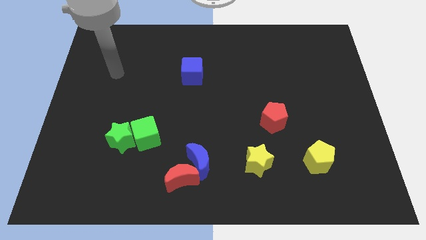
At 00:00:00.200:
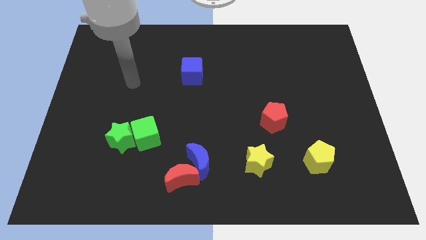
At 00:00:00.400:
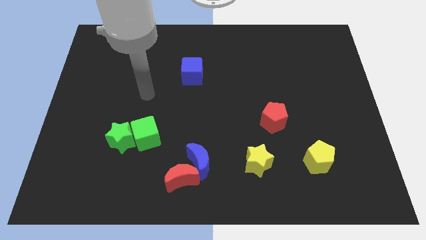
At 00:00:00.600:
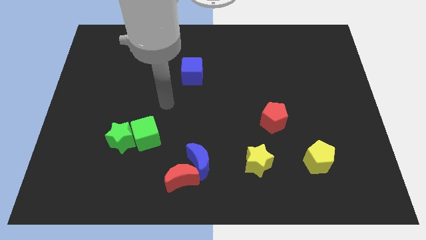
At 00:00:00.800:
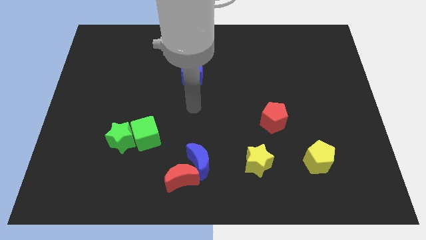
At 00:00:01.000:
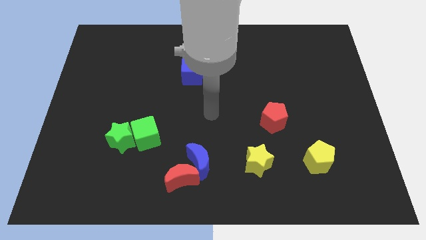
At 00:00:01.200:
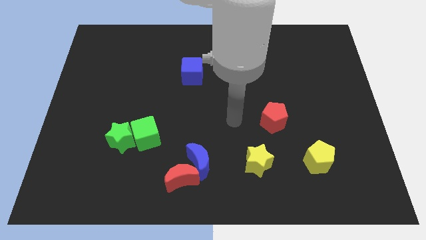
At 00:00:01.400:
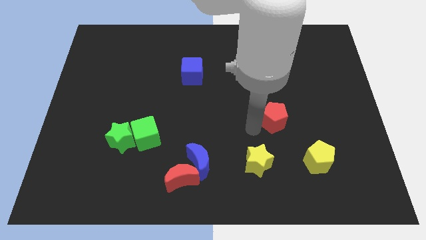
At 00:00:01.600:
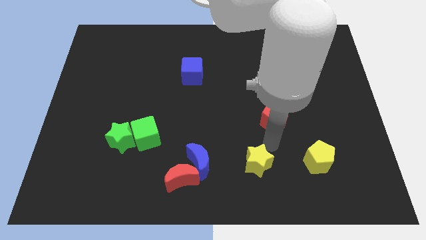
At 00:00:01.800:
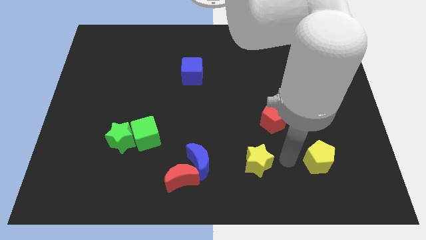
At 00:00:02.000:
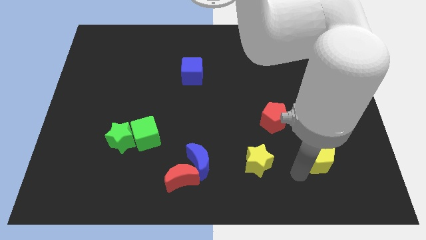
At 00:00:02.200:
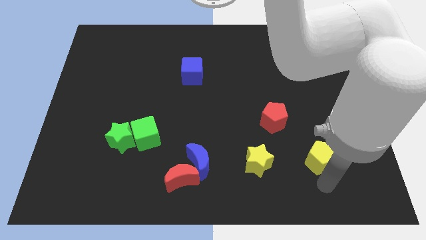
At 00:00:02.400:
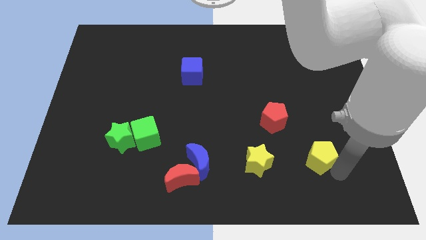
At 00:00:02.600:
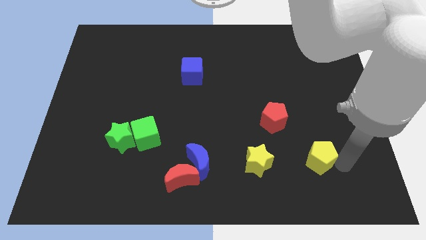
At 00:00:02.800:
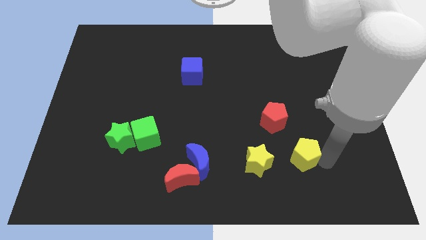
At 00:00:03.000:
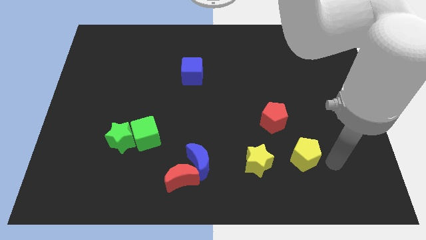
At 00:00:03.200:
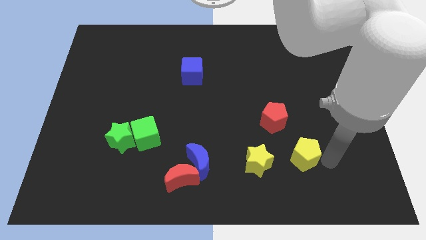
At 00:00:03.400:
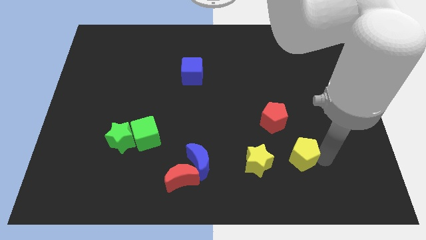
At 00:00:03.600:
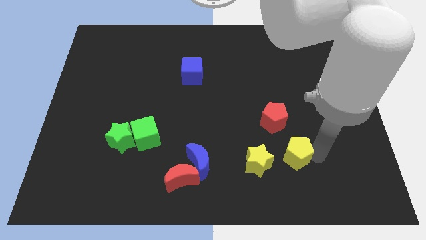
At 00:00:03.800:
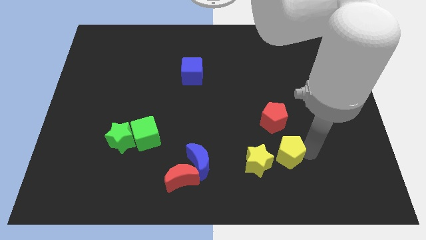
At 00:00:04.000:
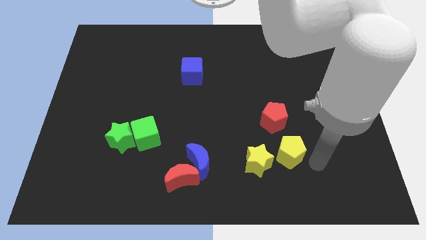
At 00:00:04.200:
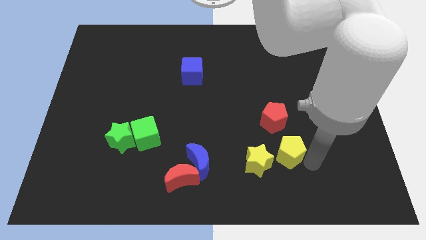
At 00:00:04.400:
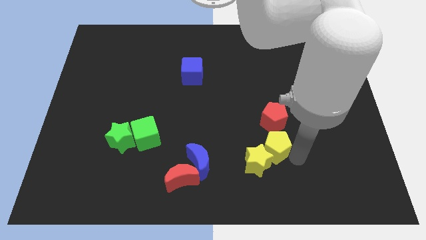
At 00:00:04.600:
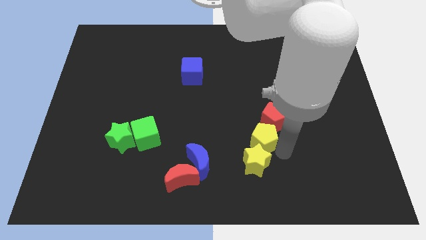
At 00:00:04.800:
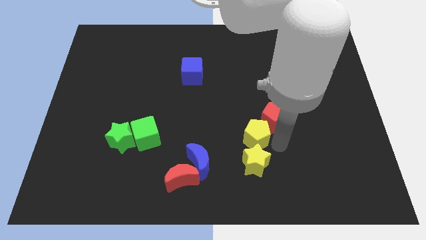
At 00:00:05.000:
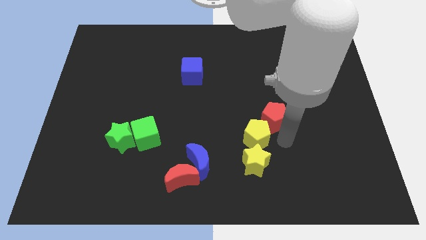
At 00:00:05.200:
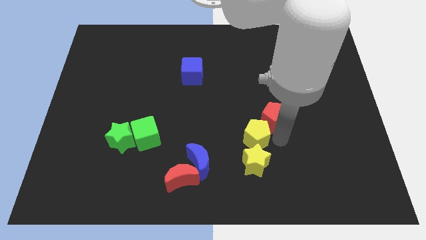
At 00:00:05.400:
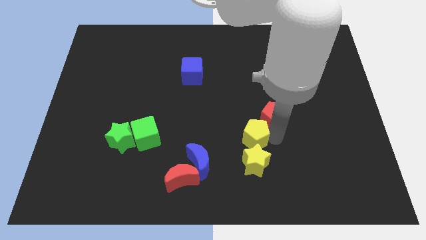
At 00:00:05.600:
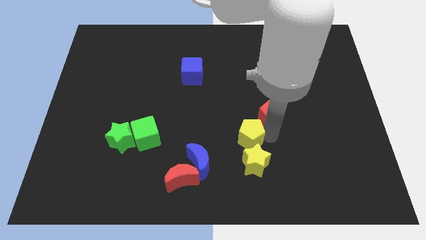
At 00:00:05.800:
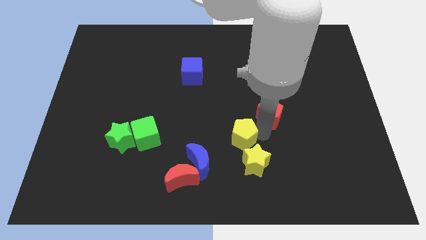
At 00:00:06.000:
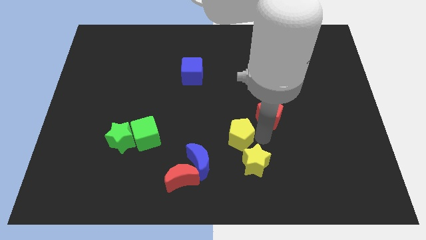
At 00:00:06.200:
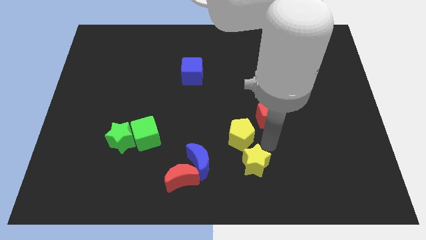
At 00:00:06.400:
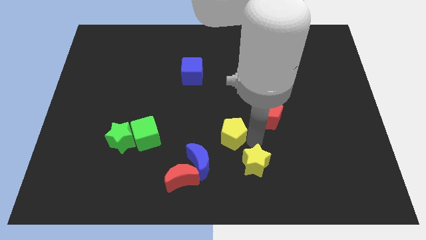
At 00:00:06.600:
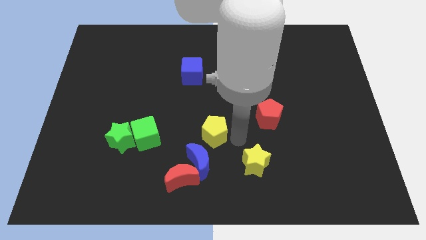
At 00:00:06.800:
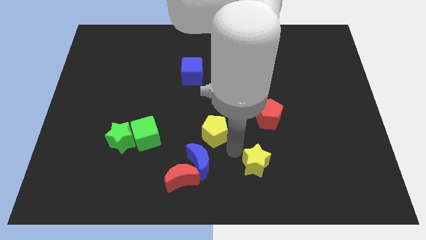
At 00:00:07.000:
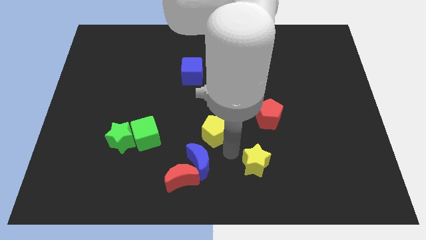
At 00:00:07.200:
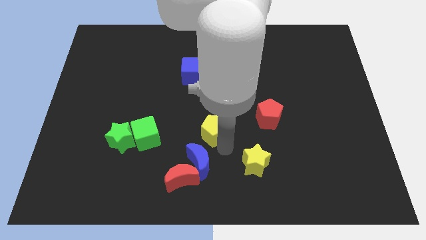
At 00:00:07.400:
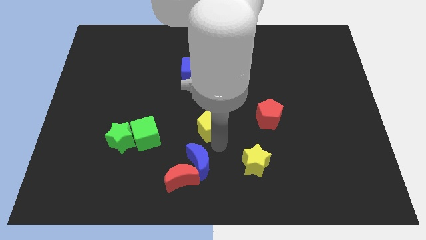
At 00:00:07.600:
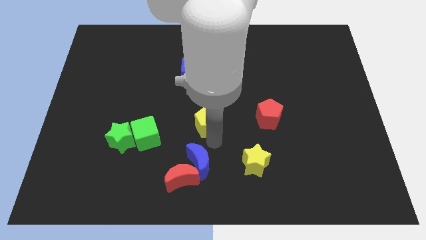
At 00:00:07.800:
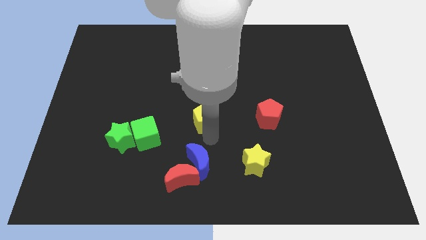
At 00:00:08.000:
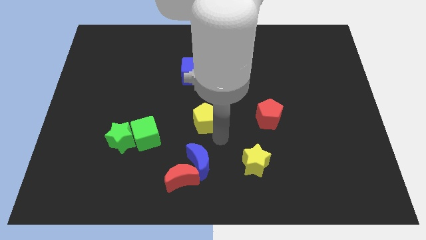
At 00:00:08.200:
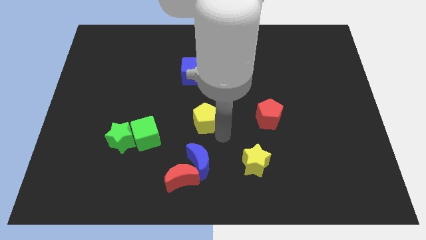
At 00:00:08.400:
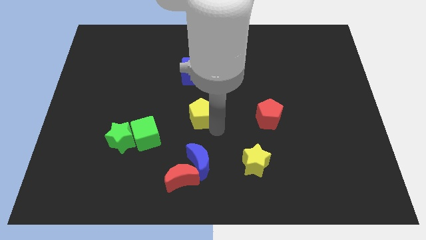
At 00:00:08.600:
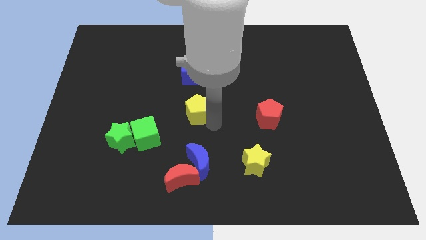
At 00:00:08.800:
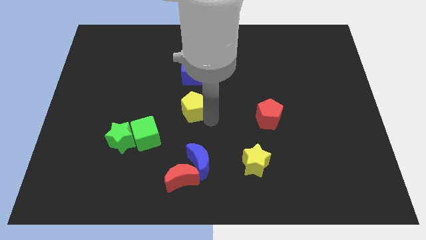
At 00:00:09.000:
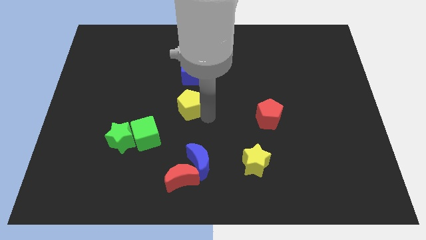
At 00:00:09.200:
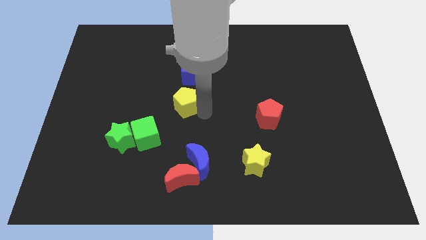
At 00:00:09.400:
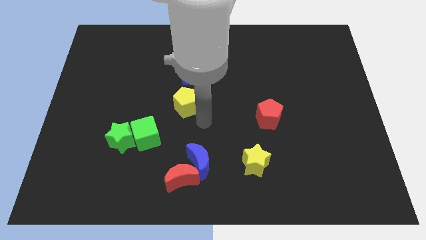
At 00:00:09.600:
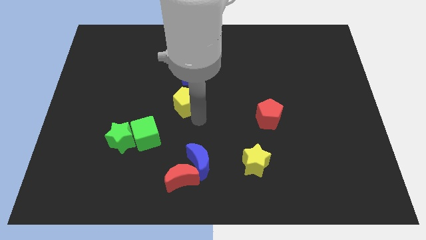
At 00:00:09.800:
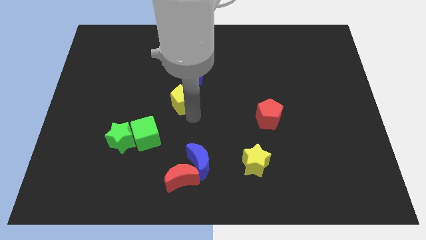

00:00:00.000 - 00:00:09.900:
move the yellow pentagon diagonally down and to the left of the blue cube

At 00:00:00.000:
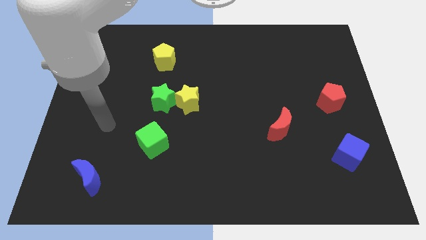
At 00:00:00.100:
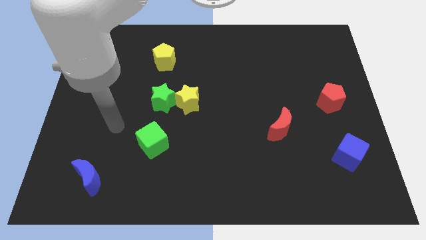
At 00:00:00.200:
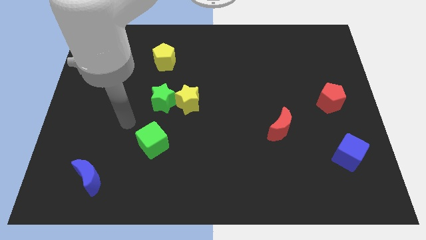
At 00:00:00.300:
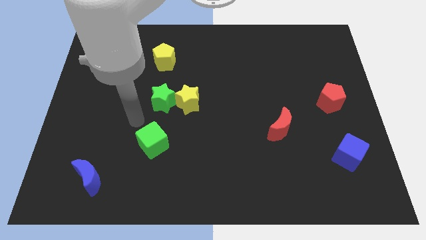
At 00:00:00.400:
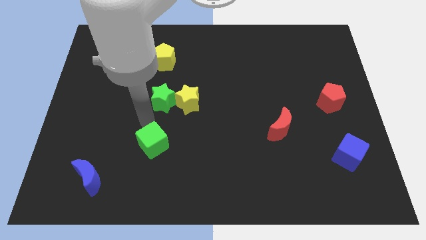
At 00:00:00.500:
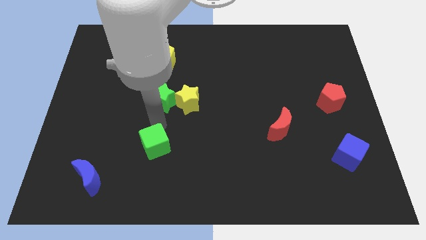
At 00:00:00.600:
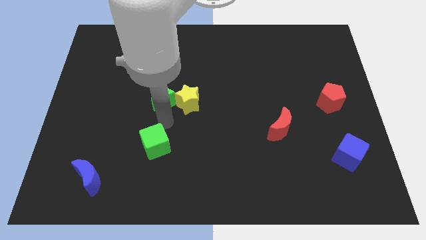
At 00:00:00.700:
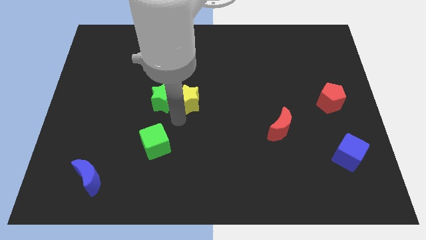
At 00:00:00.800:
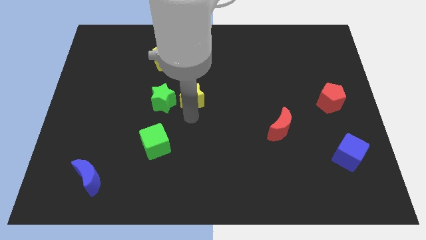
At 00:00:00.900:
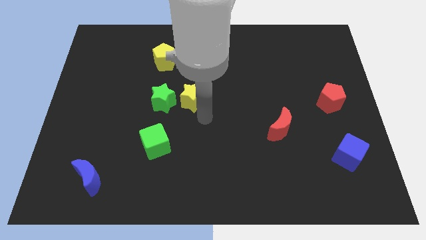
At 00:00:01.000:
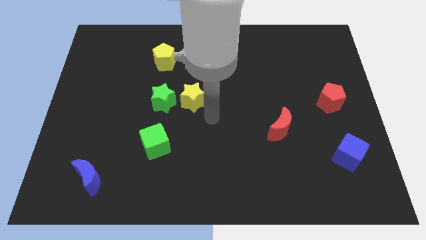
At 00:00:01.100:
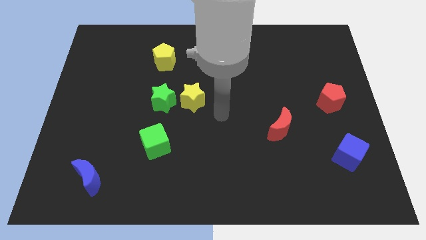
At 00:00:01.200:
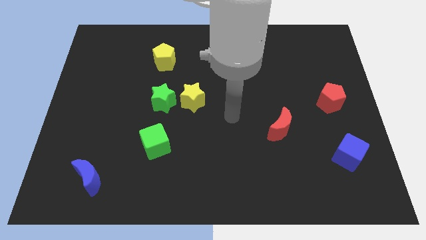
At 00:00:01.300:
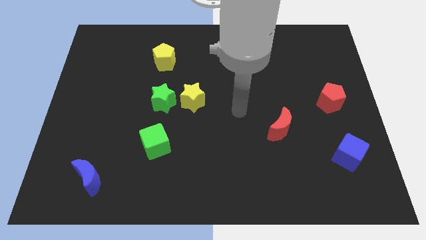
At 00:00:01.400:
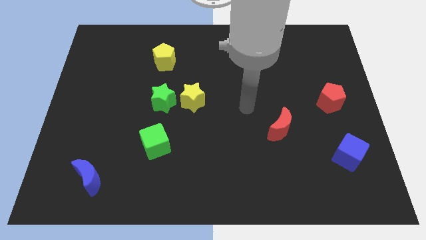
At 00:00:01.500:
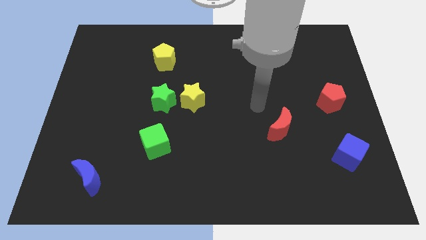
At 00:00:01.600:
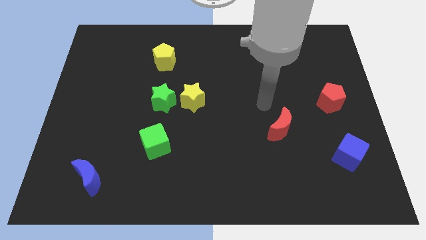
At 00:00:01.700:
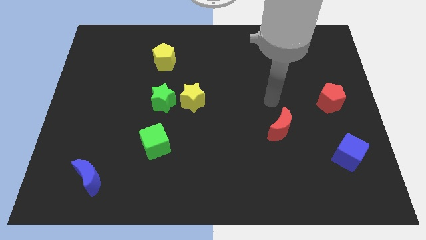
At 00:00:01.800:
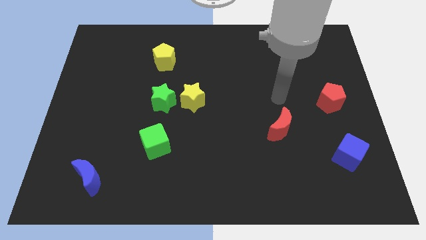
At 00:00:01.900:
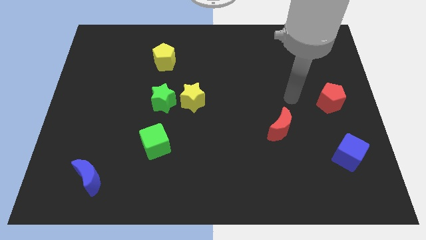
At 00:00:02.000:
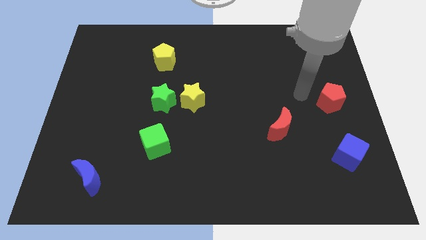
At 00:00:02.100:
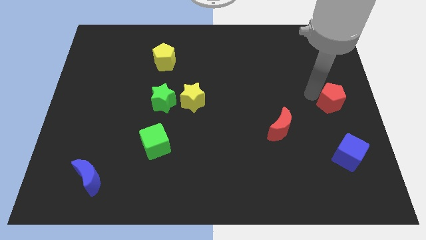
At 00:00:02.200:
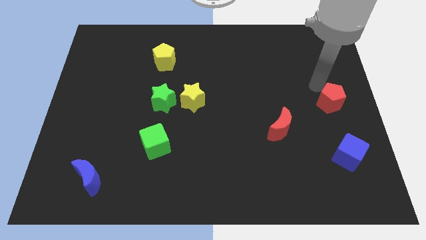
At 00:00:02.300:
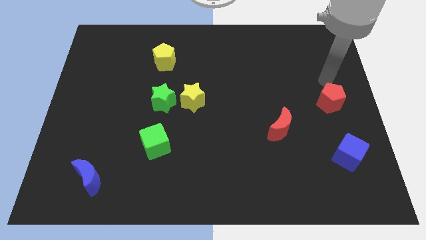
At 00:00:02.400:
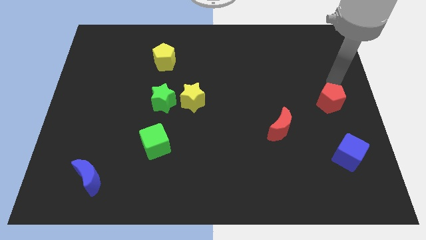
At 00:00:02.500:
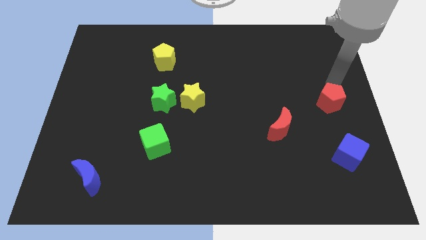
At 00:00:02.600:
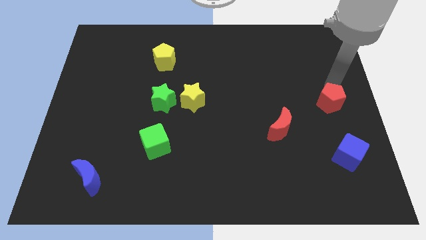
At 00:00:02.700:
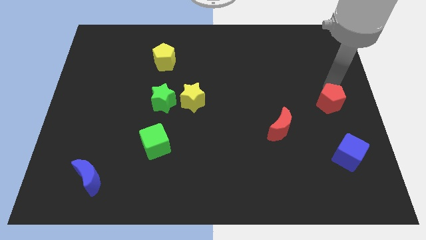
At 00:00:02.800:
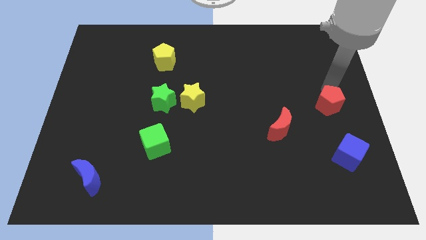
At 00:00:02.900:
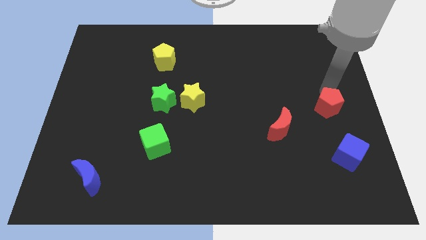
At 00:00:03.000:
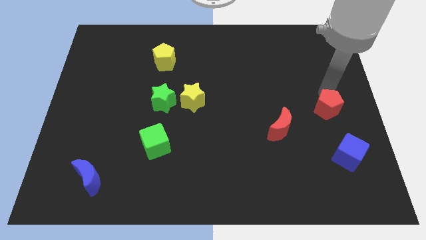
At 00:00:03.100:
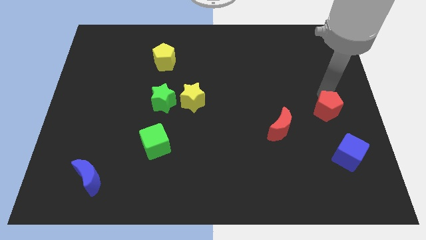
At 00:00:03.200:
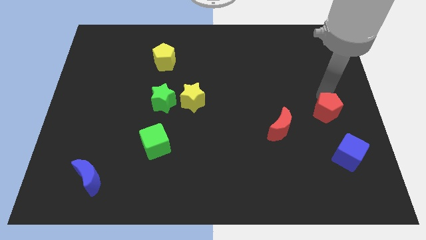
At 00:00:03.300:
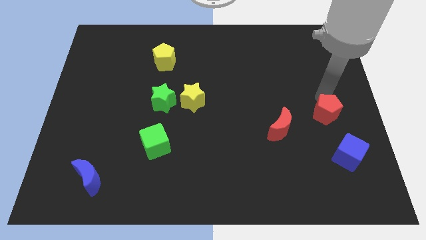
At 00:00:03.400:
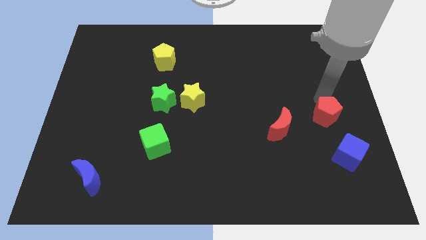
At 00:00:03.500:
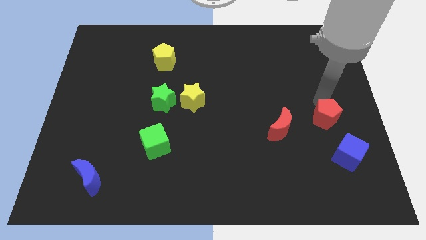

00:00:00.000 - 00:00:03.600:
push the red pentagon diagonally up and to the left of the blue cube
